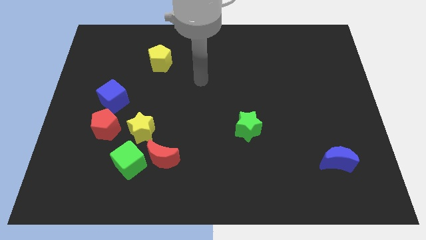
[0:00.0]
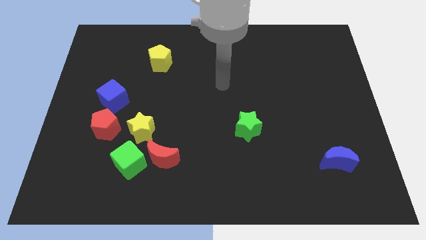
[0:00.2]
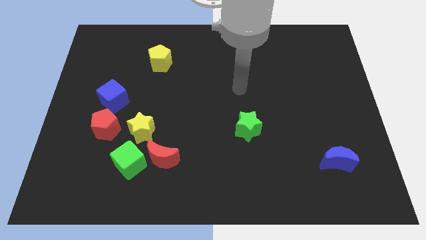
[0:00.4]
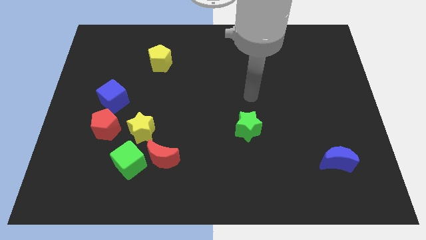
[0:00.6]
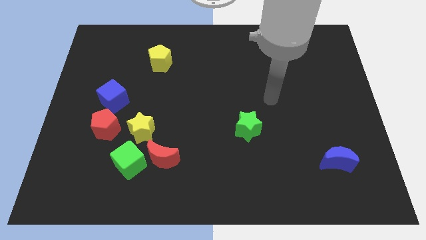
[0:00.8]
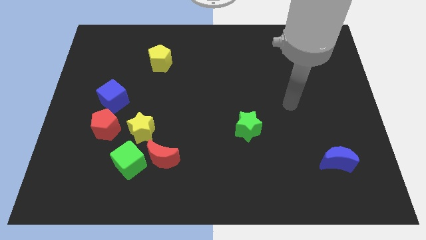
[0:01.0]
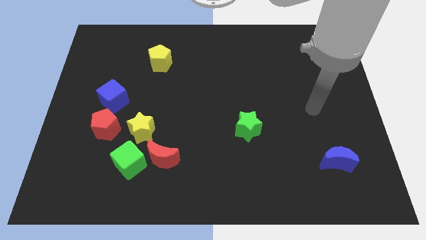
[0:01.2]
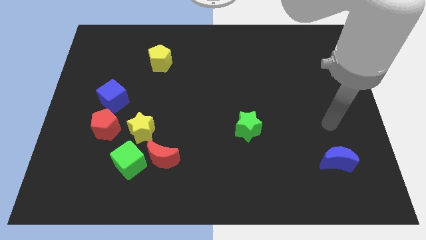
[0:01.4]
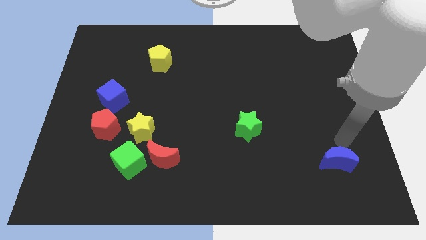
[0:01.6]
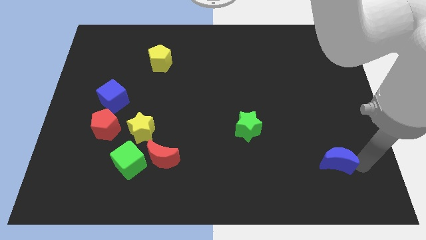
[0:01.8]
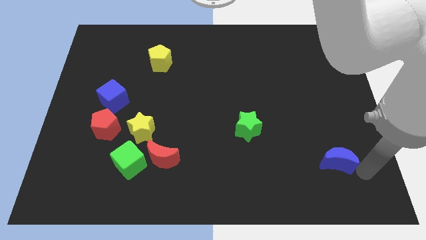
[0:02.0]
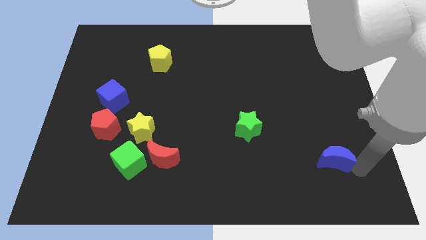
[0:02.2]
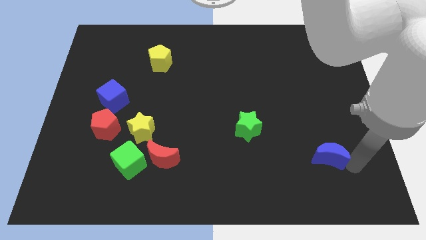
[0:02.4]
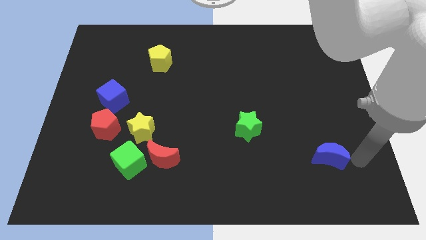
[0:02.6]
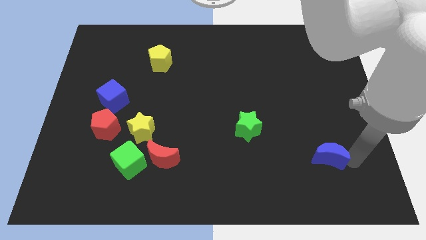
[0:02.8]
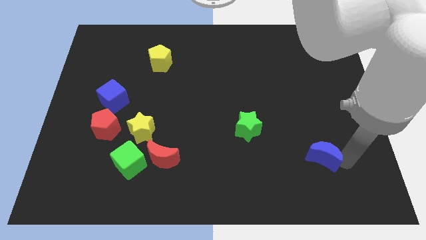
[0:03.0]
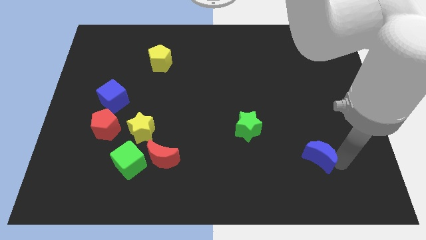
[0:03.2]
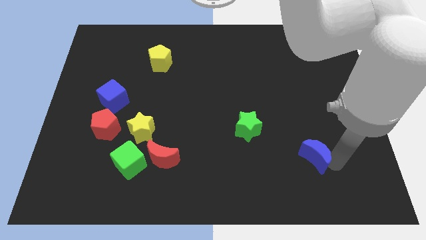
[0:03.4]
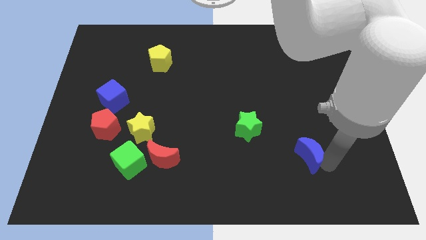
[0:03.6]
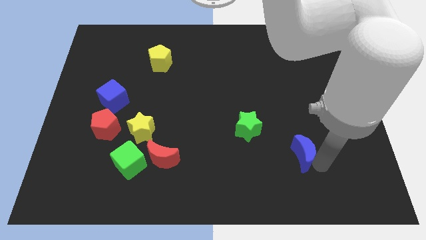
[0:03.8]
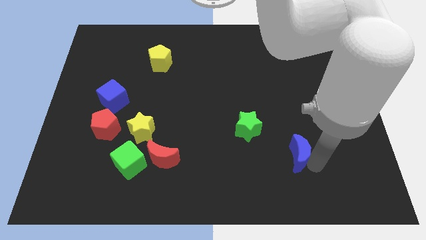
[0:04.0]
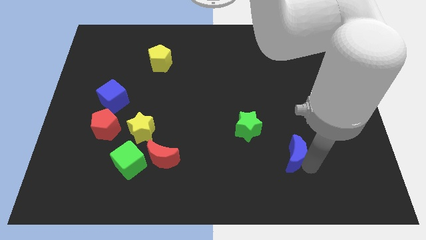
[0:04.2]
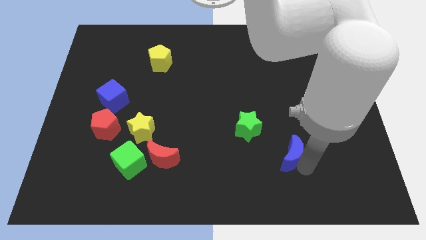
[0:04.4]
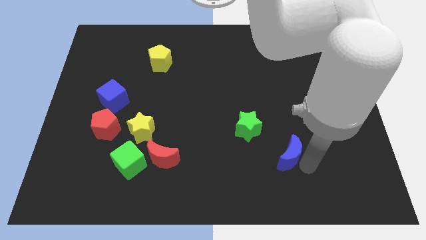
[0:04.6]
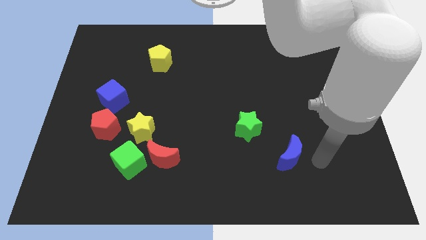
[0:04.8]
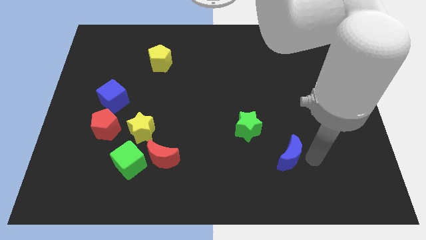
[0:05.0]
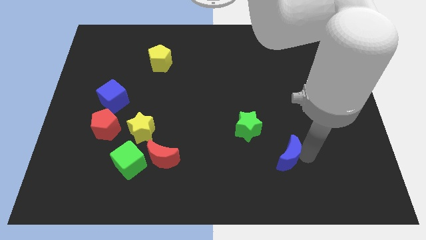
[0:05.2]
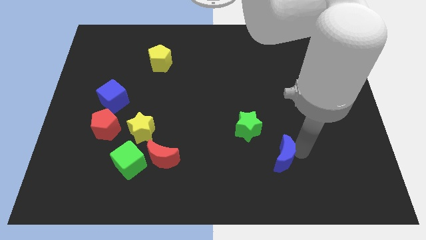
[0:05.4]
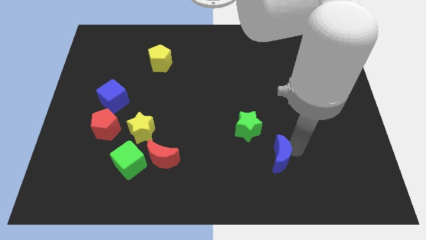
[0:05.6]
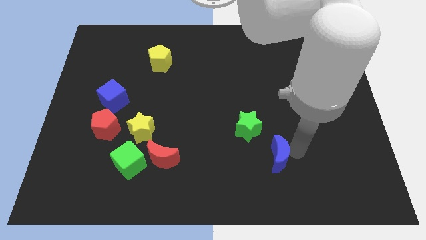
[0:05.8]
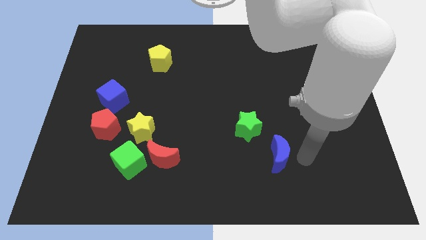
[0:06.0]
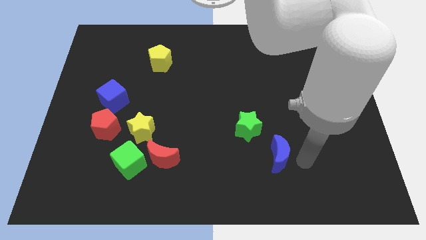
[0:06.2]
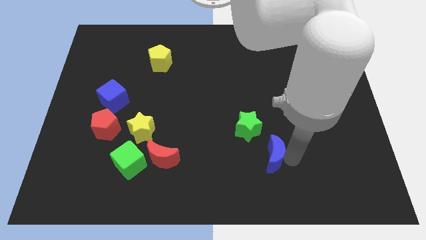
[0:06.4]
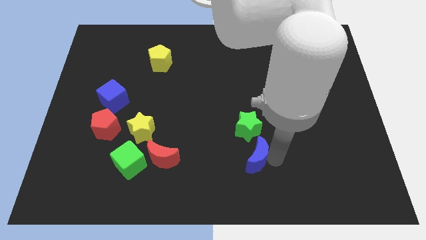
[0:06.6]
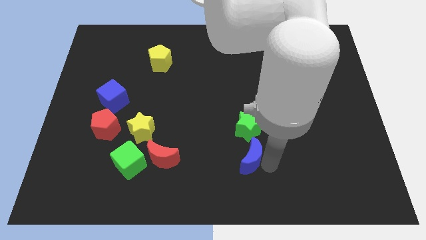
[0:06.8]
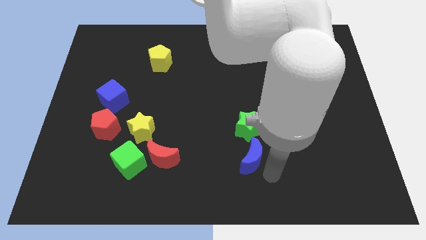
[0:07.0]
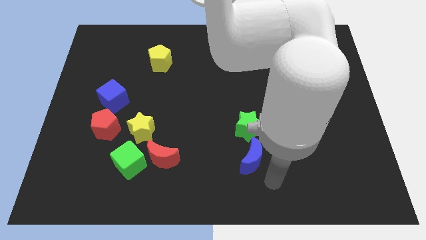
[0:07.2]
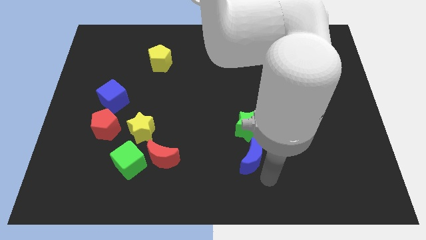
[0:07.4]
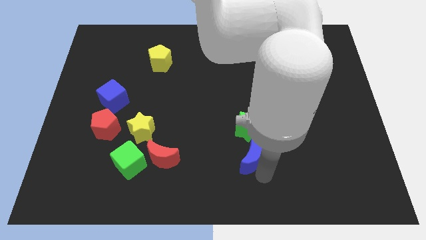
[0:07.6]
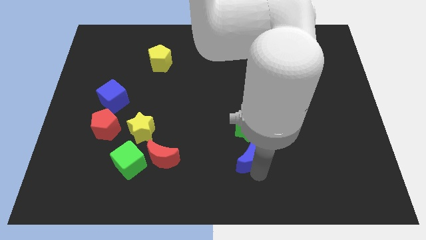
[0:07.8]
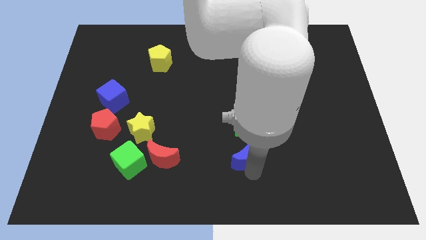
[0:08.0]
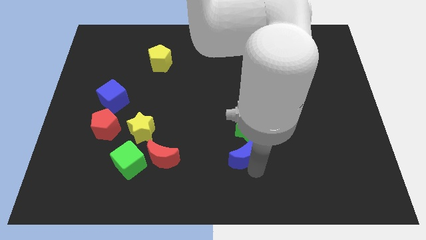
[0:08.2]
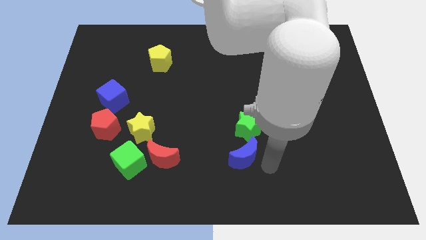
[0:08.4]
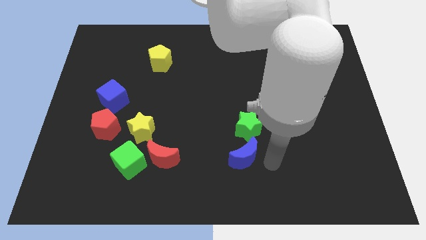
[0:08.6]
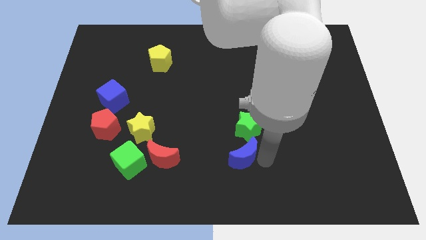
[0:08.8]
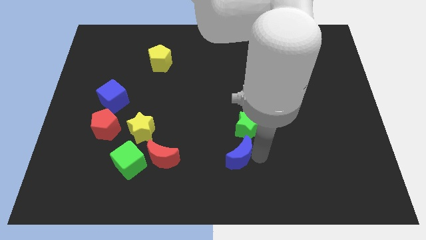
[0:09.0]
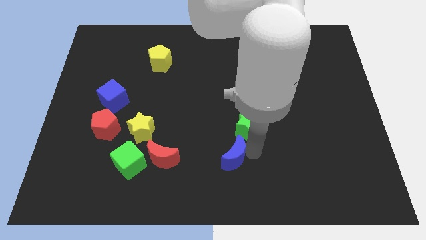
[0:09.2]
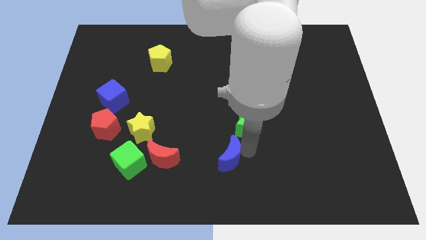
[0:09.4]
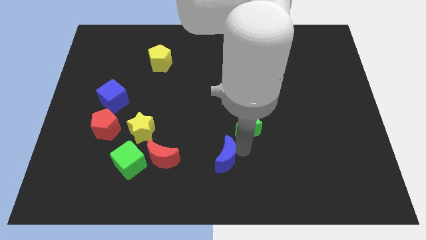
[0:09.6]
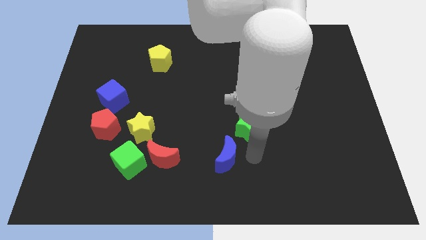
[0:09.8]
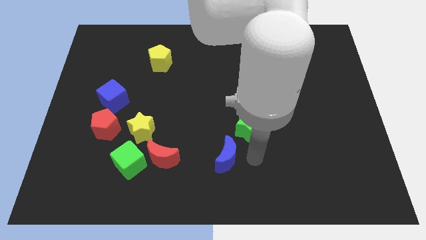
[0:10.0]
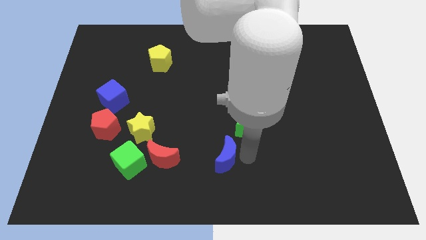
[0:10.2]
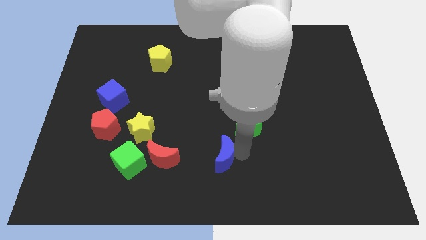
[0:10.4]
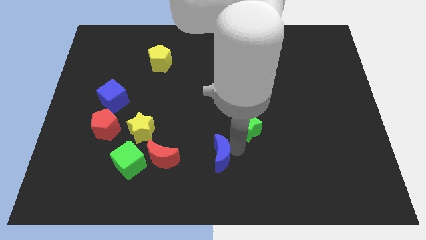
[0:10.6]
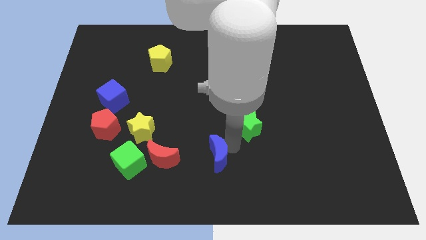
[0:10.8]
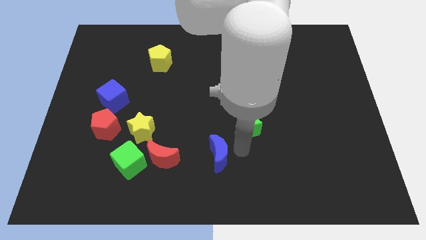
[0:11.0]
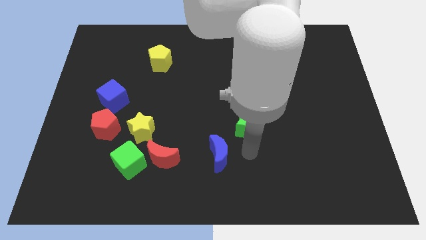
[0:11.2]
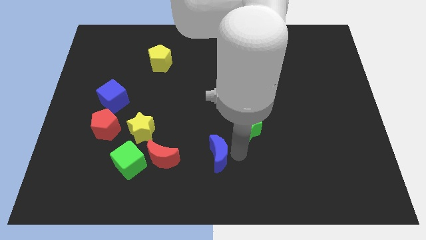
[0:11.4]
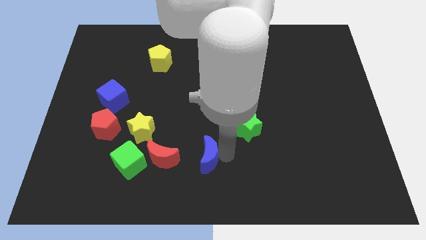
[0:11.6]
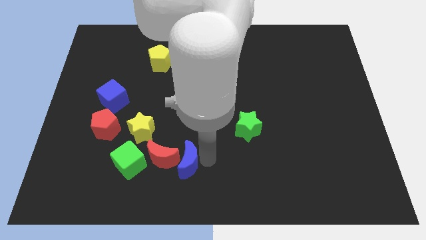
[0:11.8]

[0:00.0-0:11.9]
push the blue moon next to the red moon

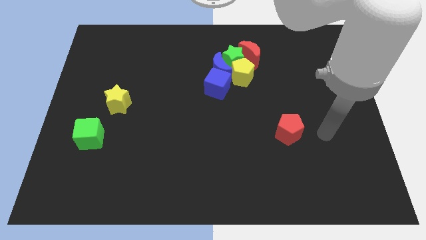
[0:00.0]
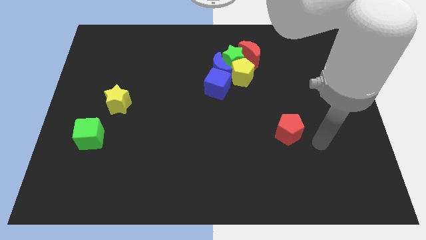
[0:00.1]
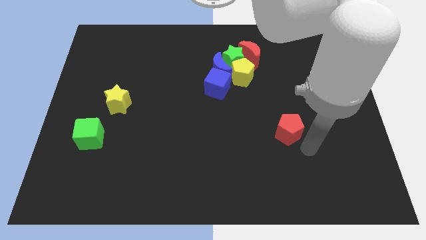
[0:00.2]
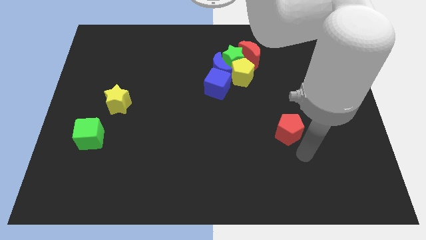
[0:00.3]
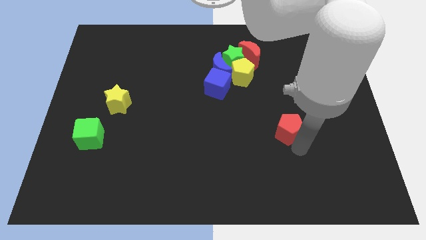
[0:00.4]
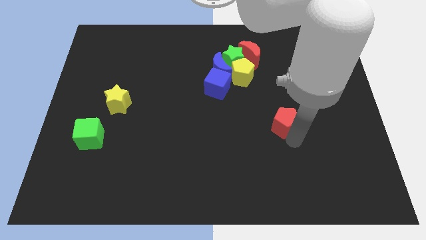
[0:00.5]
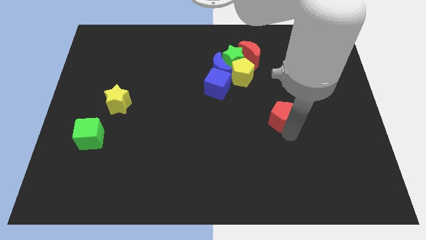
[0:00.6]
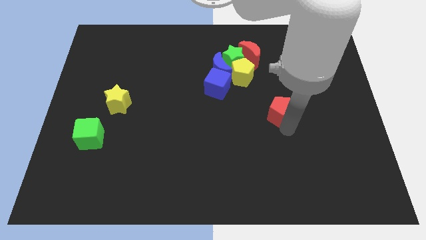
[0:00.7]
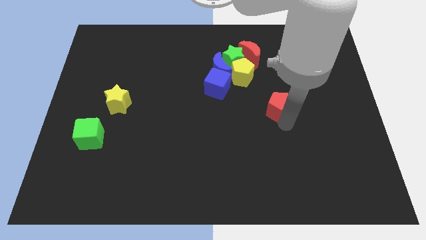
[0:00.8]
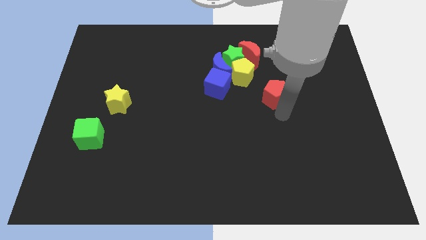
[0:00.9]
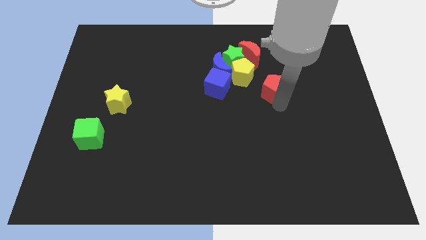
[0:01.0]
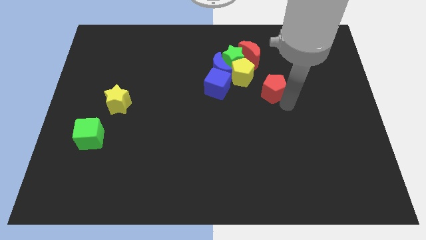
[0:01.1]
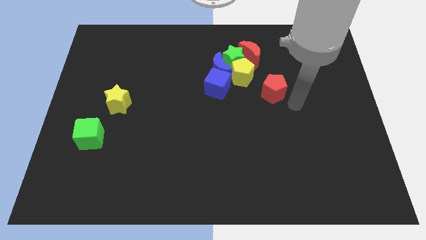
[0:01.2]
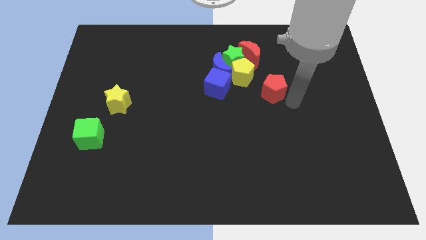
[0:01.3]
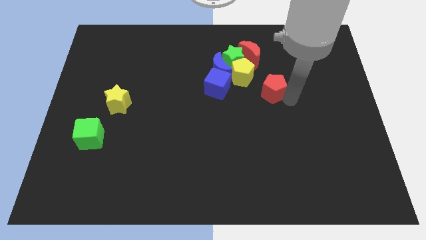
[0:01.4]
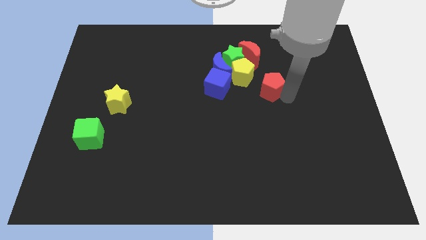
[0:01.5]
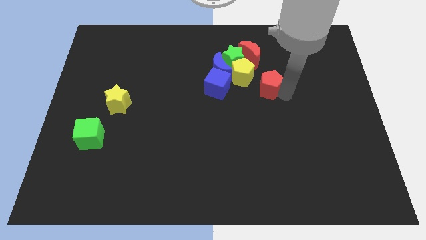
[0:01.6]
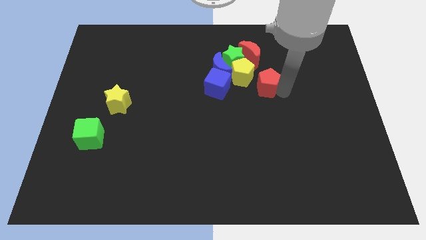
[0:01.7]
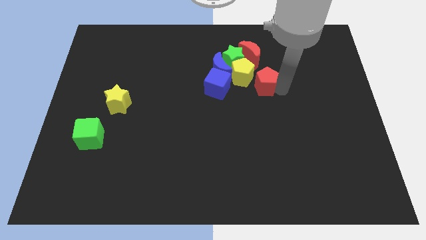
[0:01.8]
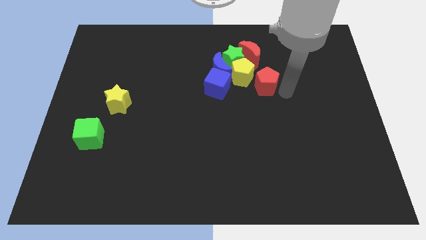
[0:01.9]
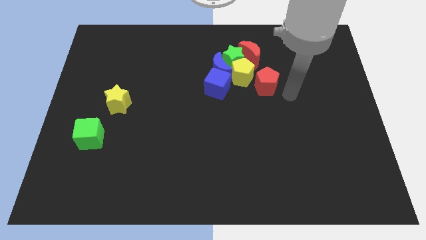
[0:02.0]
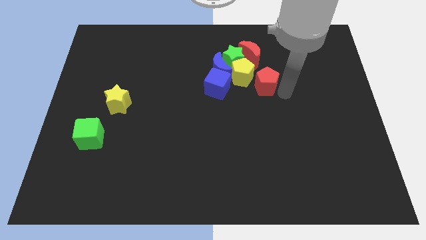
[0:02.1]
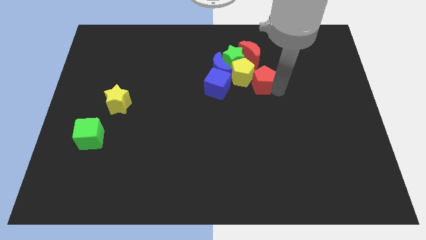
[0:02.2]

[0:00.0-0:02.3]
move the red pentagon close to the yellow pentagon
